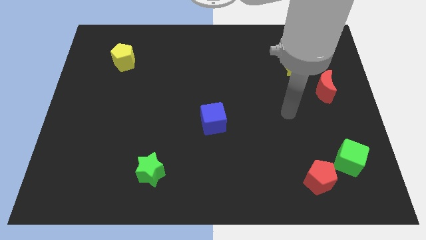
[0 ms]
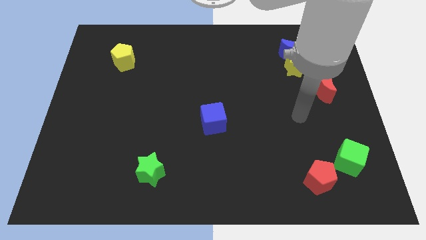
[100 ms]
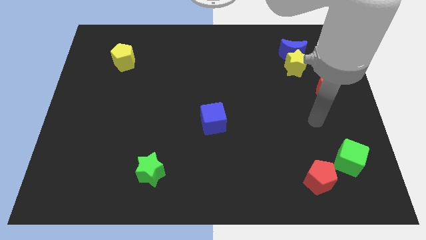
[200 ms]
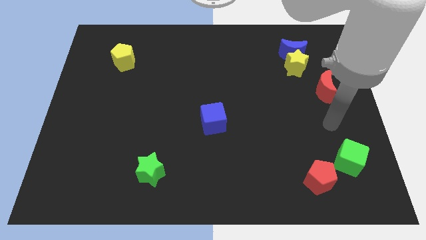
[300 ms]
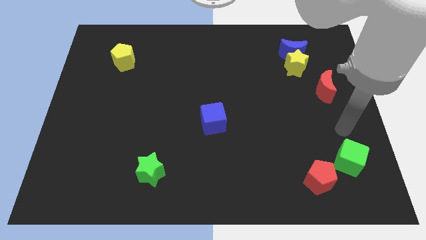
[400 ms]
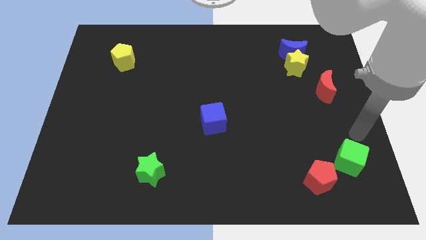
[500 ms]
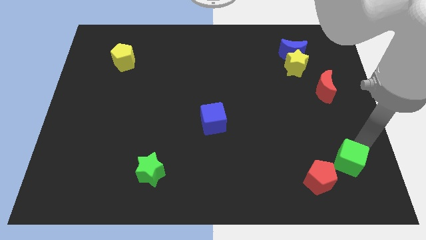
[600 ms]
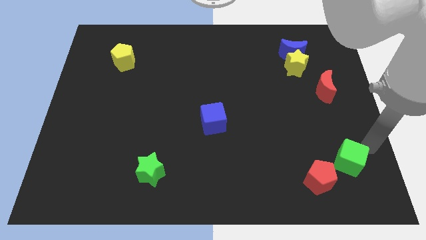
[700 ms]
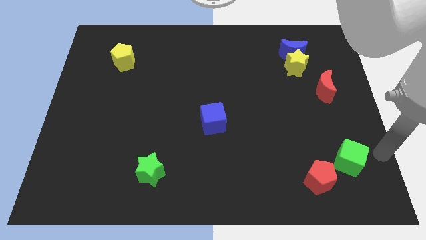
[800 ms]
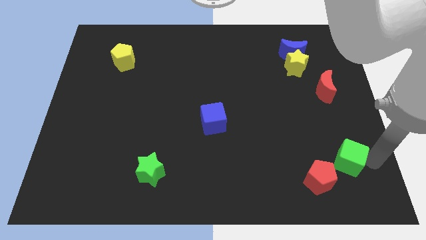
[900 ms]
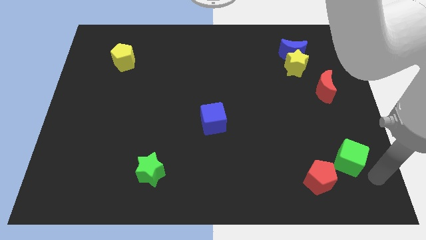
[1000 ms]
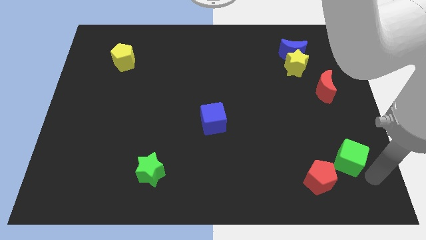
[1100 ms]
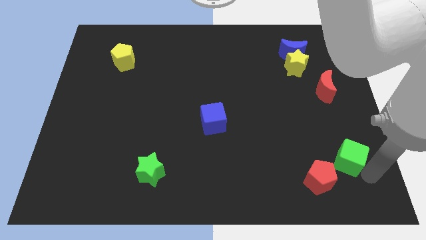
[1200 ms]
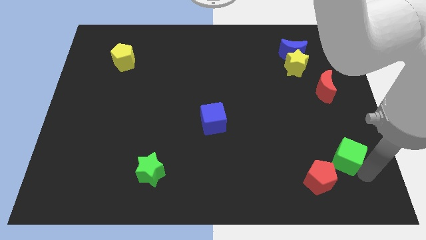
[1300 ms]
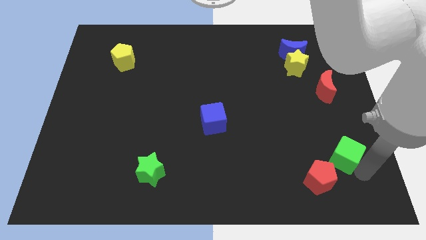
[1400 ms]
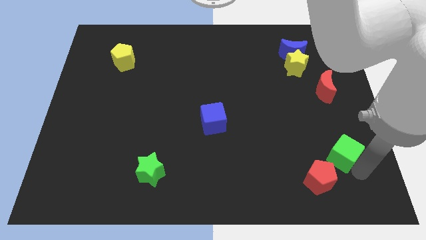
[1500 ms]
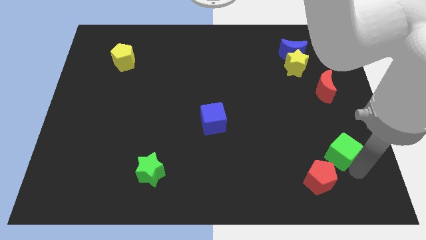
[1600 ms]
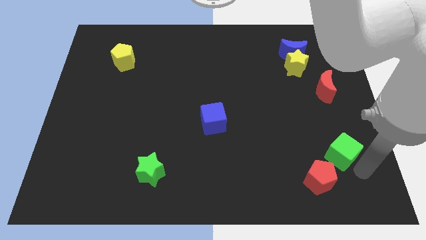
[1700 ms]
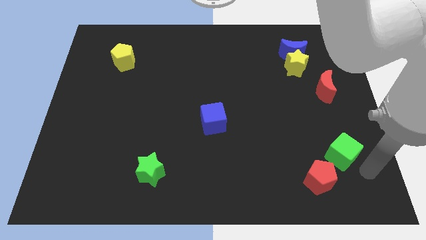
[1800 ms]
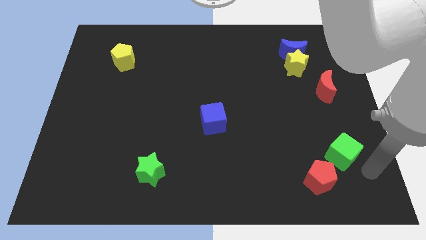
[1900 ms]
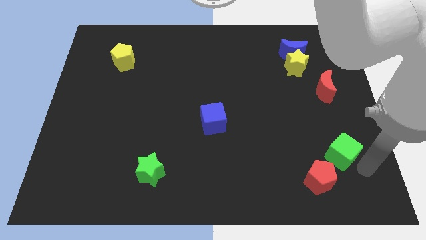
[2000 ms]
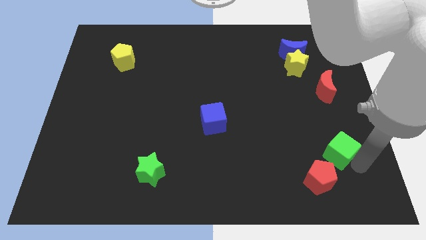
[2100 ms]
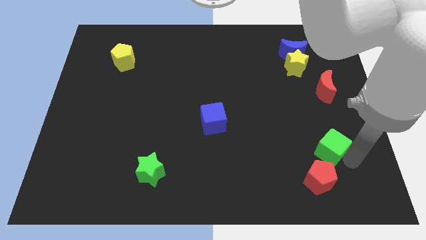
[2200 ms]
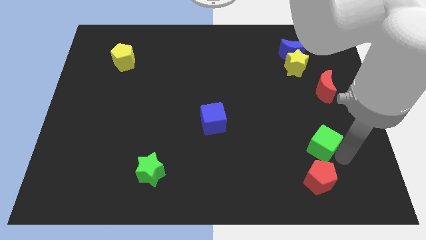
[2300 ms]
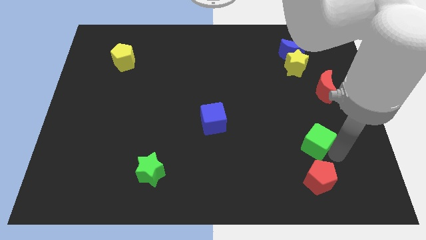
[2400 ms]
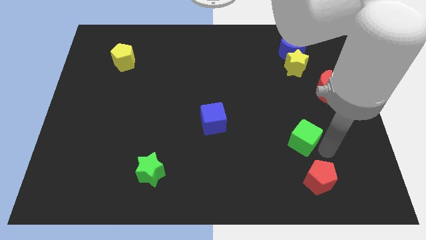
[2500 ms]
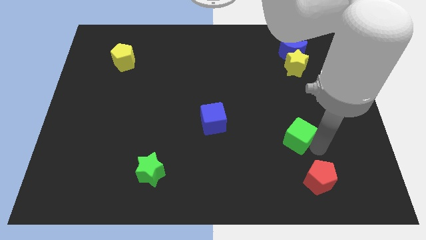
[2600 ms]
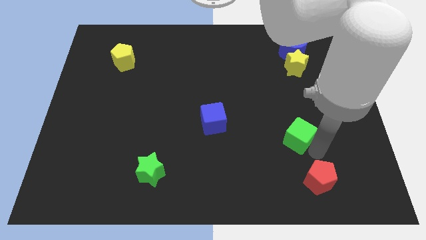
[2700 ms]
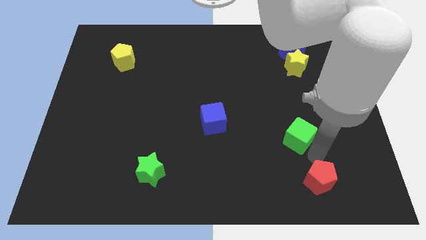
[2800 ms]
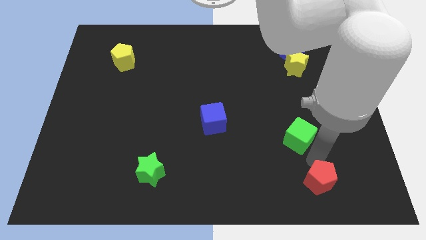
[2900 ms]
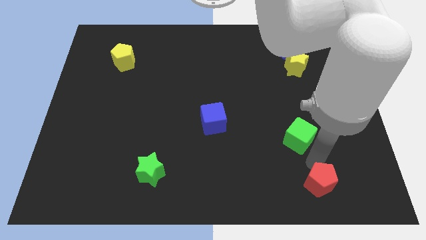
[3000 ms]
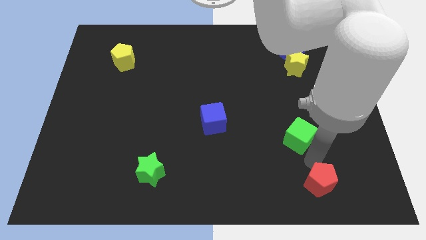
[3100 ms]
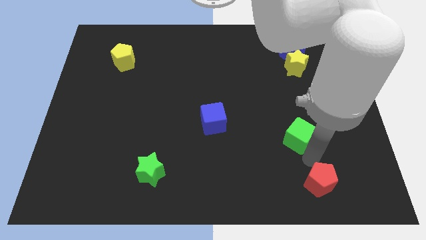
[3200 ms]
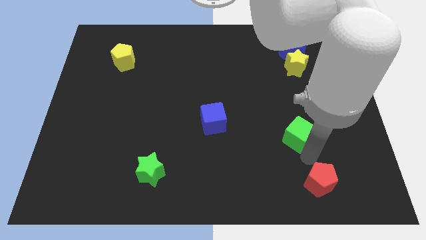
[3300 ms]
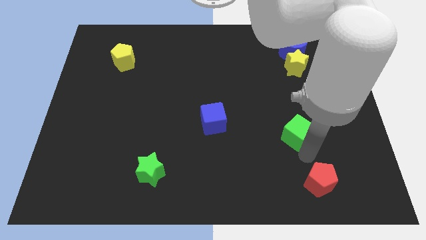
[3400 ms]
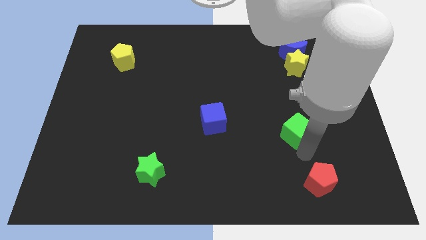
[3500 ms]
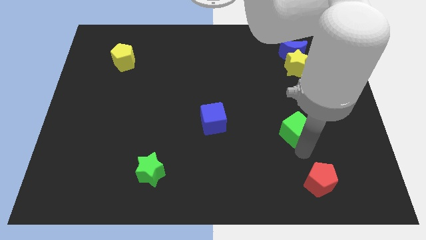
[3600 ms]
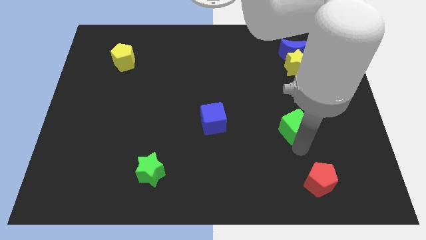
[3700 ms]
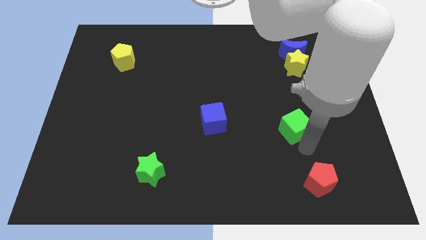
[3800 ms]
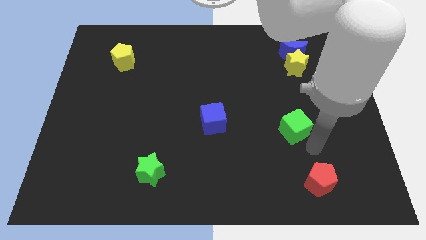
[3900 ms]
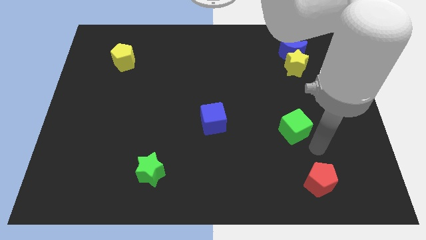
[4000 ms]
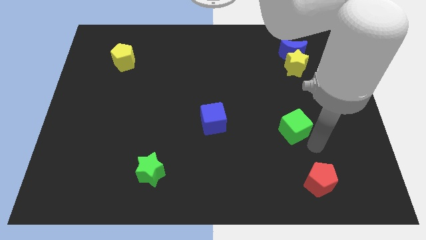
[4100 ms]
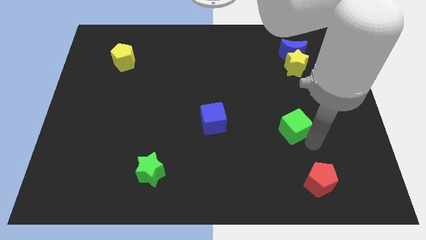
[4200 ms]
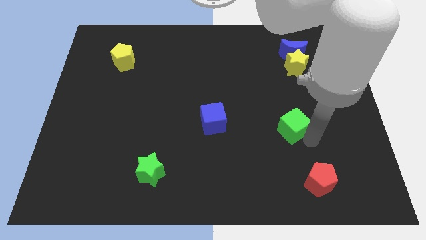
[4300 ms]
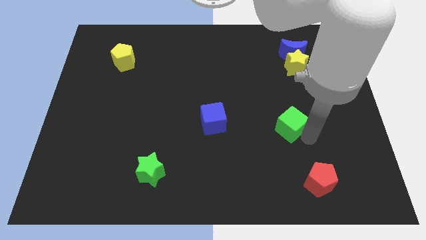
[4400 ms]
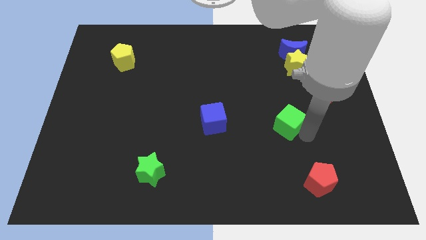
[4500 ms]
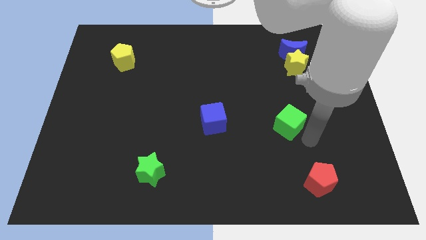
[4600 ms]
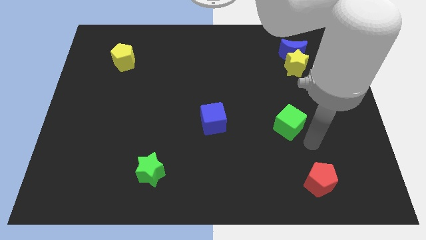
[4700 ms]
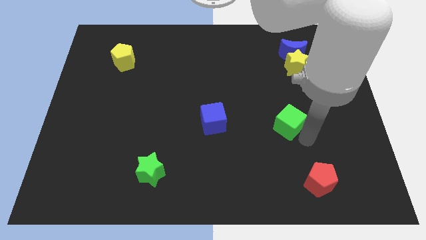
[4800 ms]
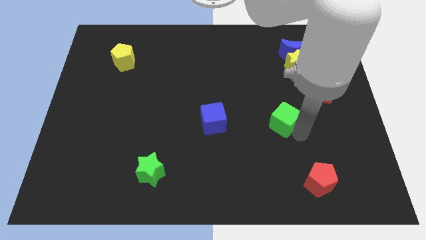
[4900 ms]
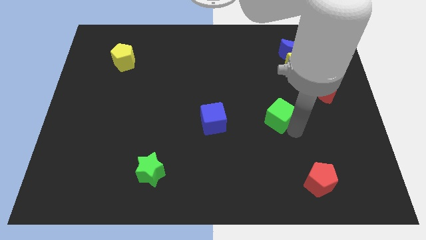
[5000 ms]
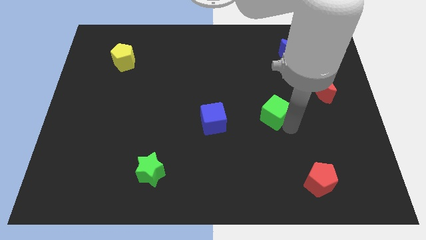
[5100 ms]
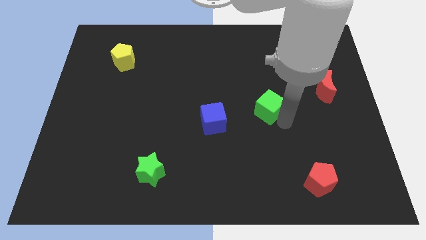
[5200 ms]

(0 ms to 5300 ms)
slide the green cube up and to the left

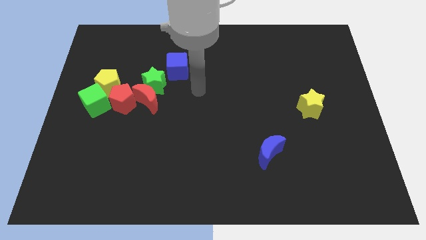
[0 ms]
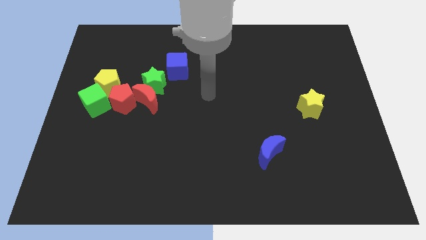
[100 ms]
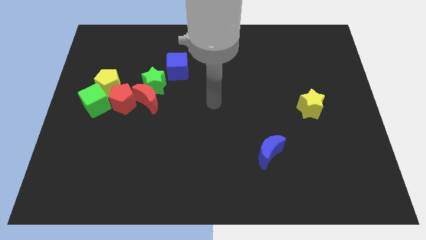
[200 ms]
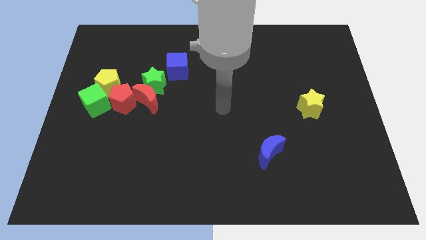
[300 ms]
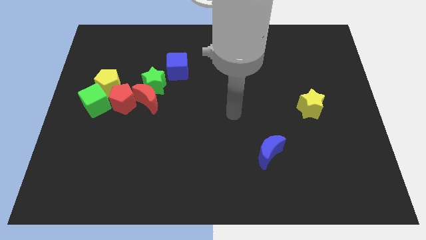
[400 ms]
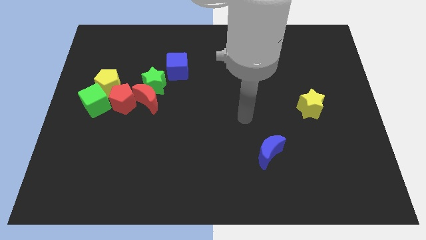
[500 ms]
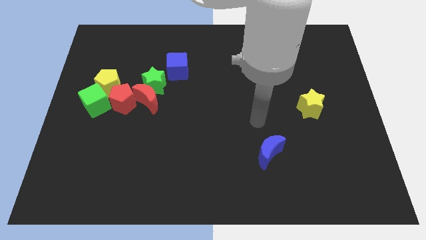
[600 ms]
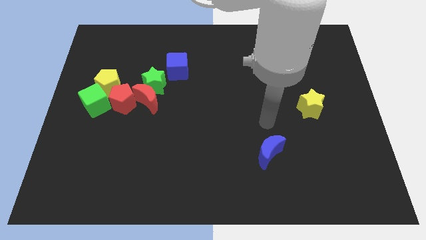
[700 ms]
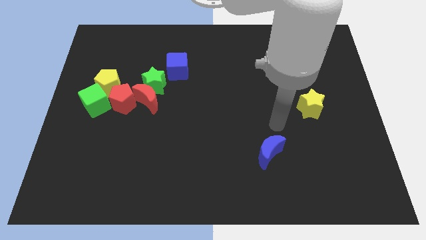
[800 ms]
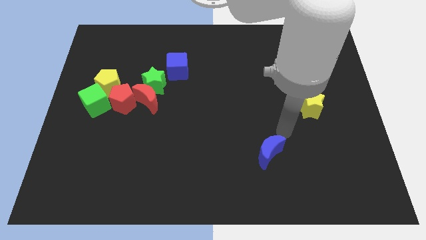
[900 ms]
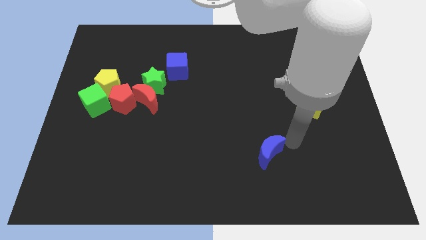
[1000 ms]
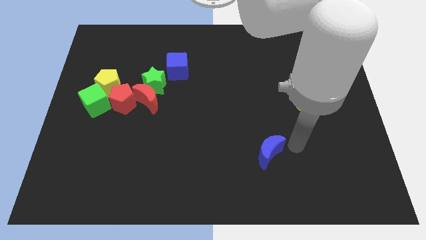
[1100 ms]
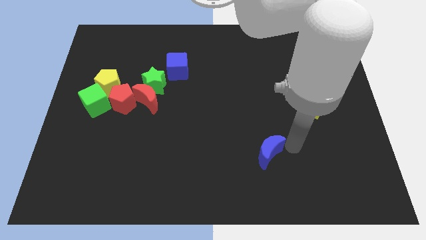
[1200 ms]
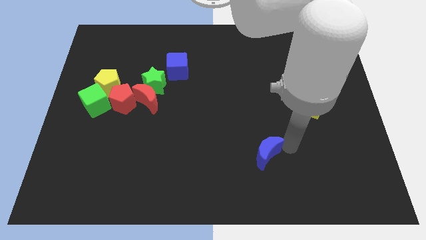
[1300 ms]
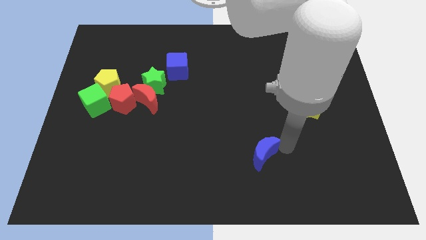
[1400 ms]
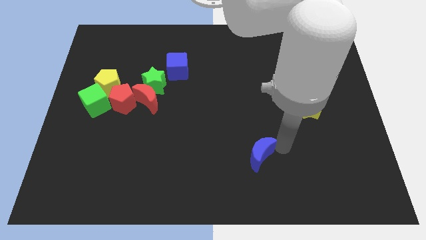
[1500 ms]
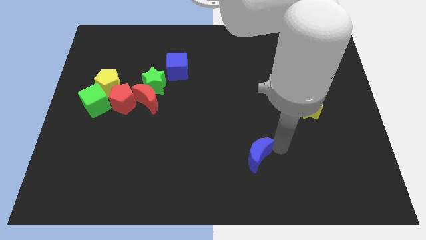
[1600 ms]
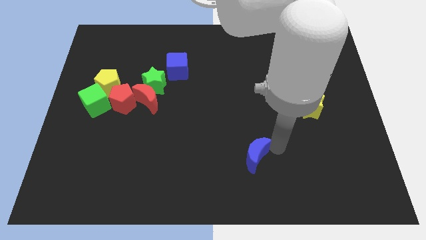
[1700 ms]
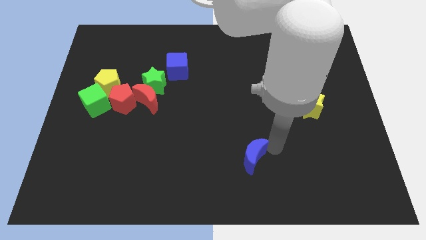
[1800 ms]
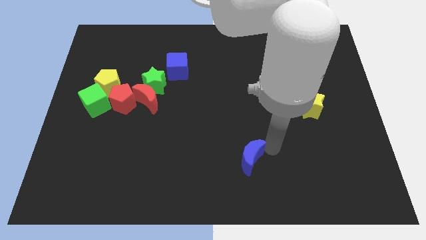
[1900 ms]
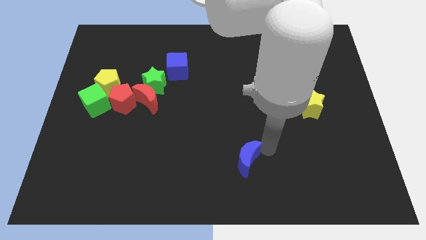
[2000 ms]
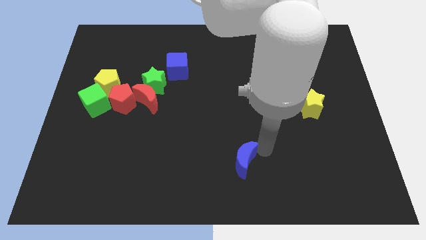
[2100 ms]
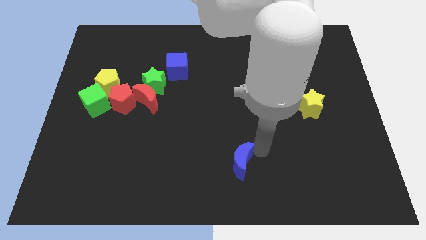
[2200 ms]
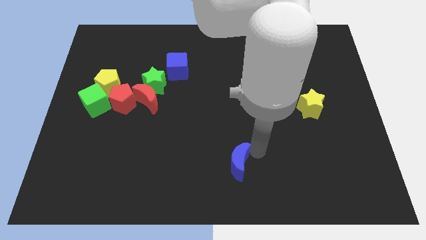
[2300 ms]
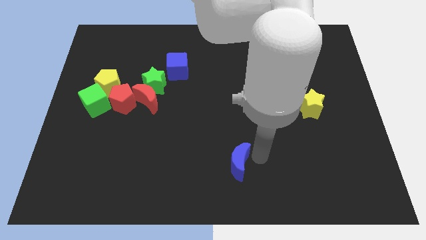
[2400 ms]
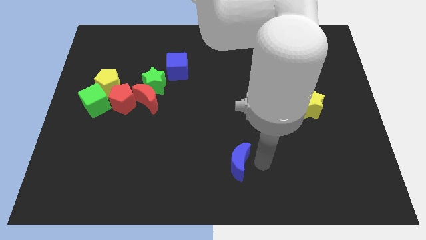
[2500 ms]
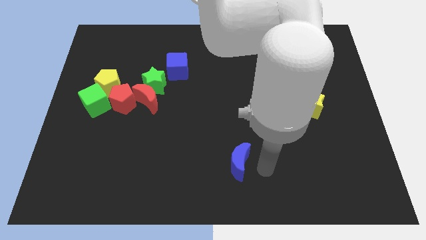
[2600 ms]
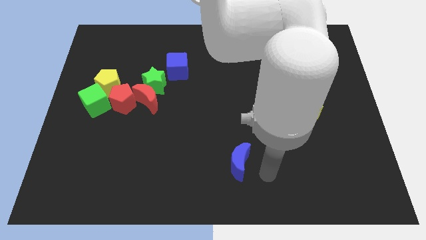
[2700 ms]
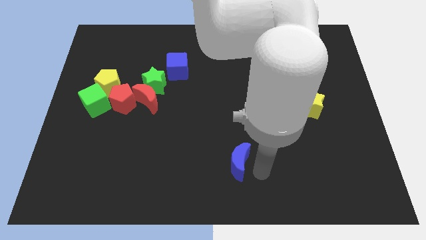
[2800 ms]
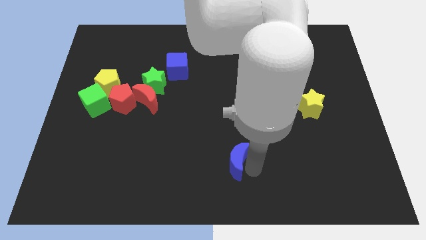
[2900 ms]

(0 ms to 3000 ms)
slide the blue moon to the left slightly
